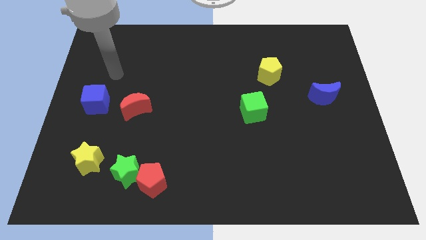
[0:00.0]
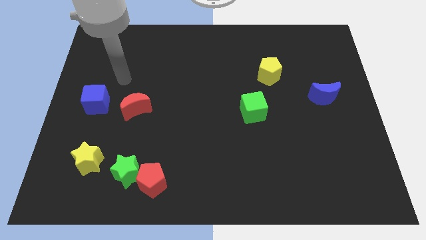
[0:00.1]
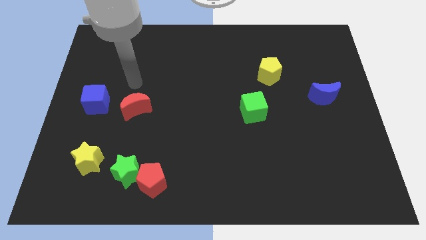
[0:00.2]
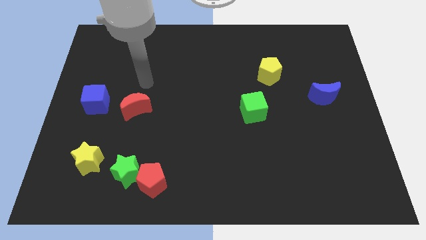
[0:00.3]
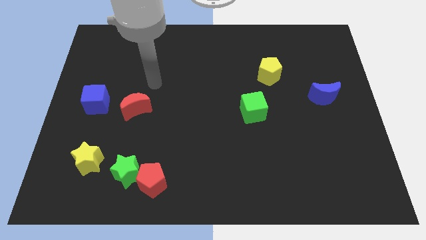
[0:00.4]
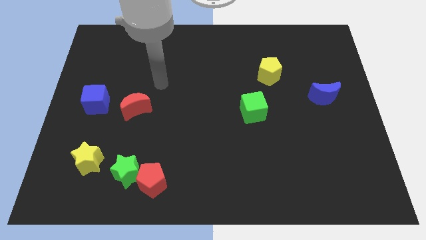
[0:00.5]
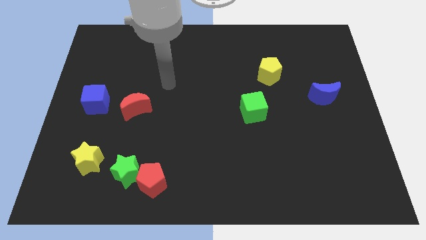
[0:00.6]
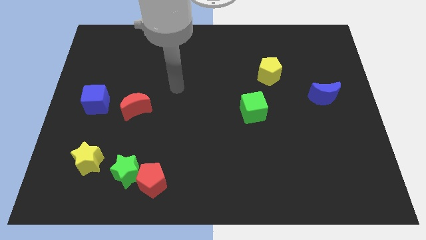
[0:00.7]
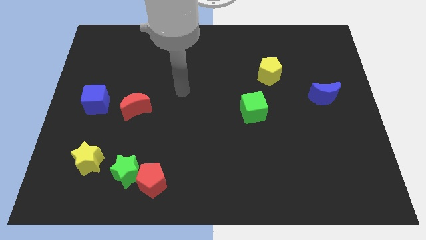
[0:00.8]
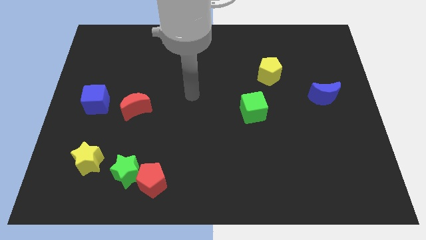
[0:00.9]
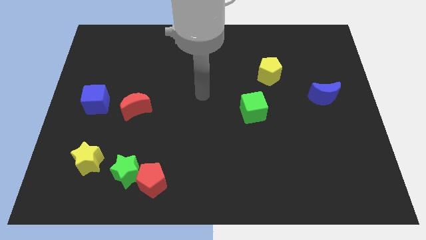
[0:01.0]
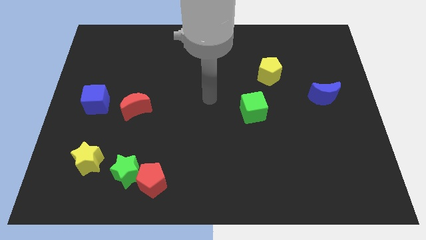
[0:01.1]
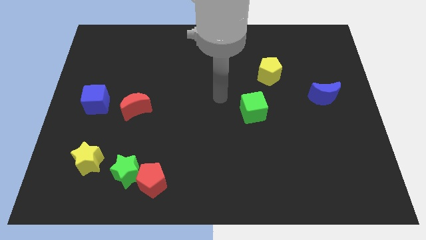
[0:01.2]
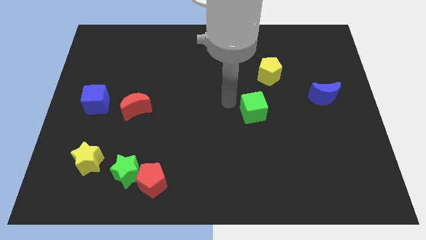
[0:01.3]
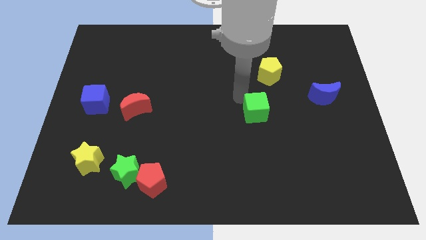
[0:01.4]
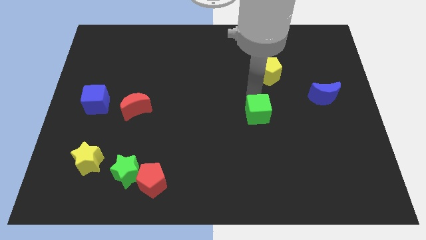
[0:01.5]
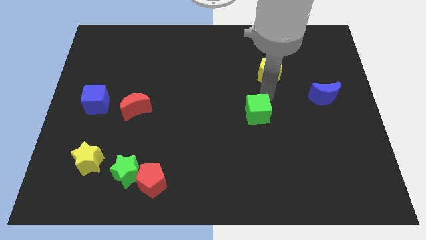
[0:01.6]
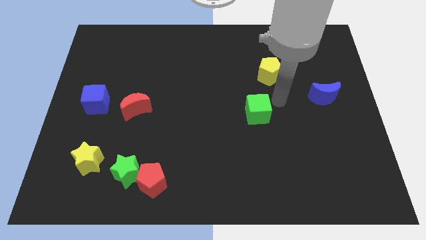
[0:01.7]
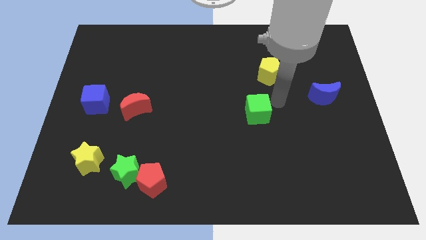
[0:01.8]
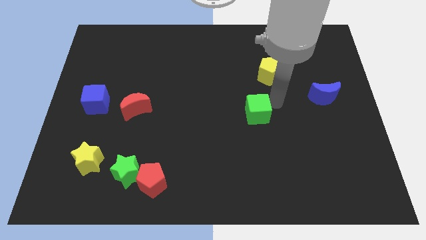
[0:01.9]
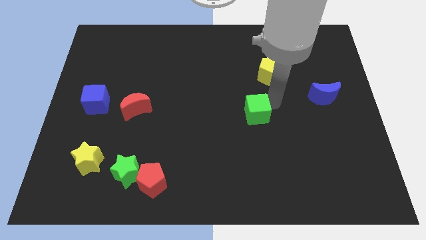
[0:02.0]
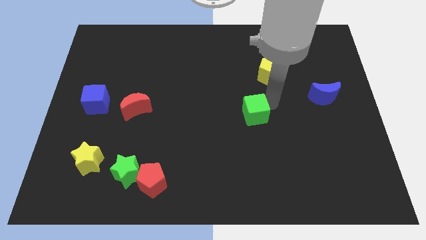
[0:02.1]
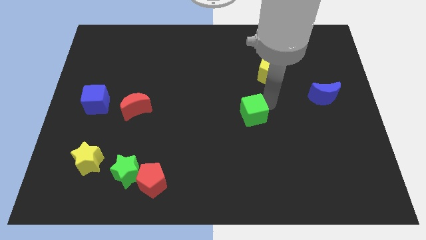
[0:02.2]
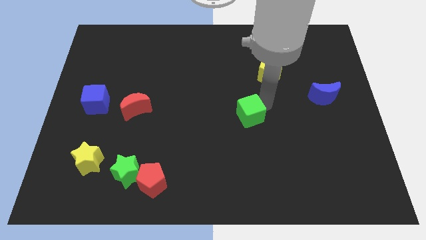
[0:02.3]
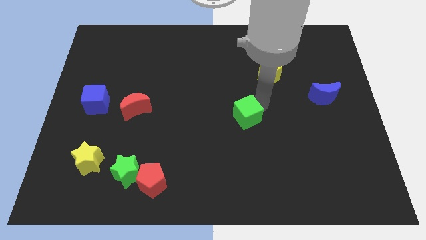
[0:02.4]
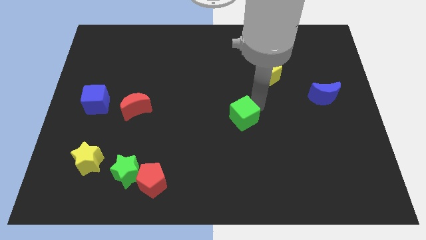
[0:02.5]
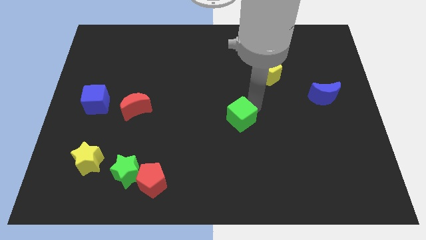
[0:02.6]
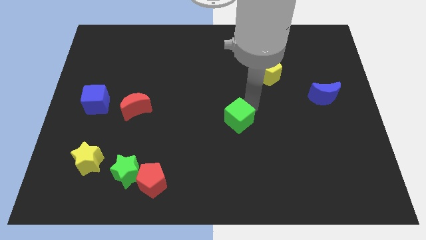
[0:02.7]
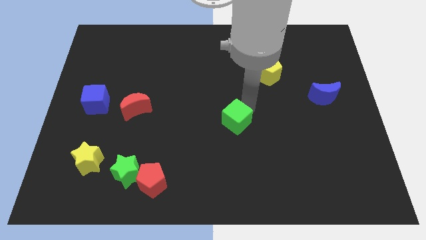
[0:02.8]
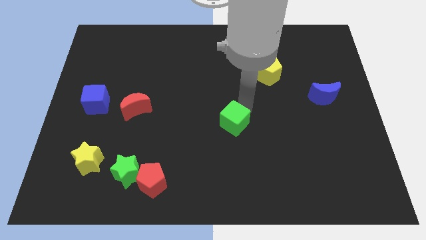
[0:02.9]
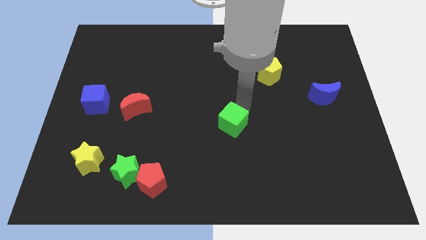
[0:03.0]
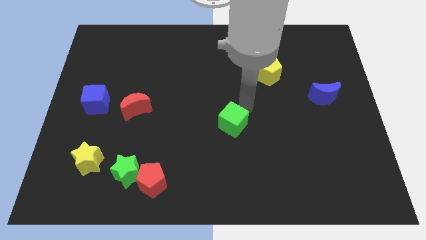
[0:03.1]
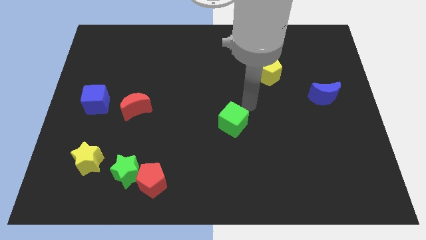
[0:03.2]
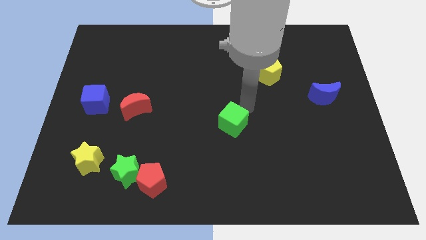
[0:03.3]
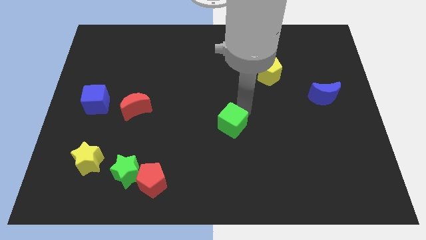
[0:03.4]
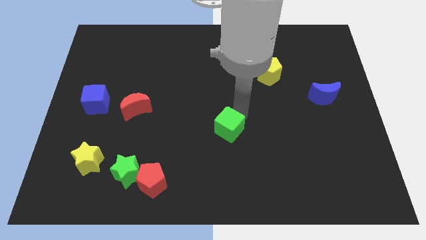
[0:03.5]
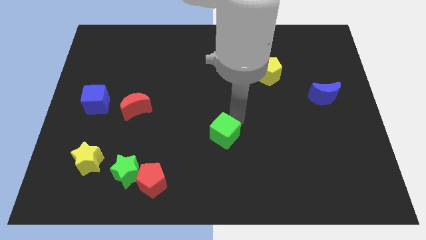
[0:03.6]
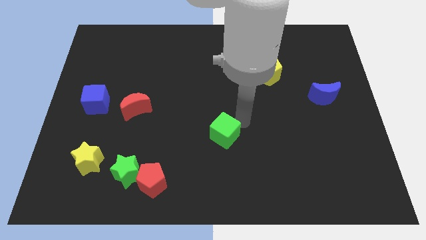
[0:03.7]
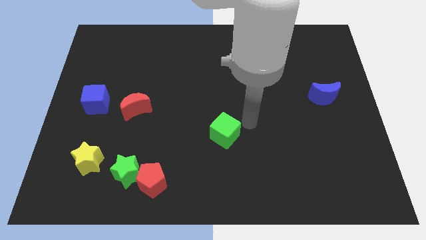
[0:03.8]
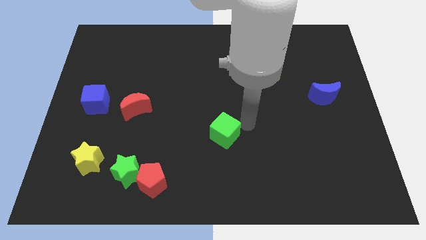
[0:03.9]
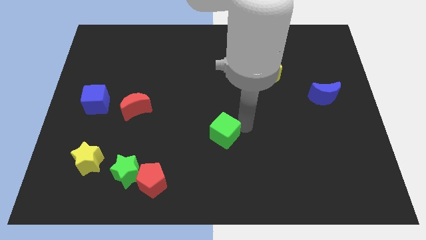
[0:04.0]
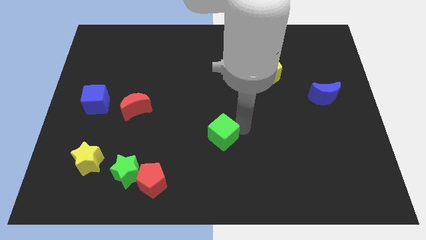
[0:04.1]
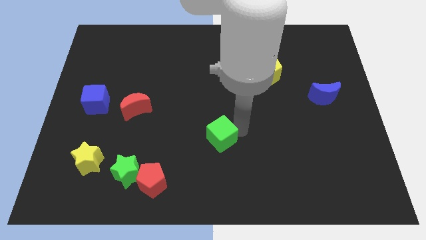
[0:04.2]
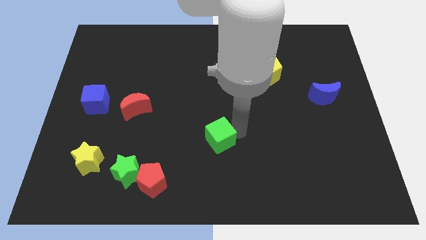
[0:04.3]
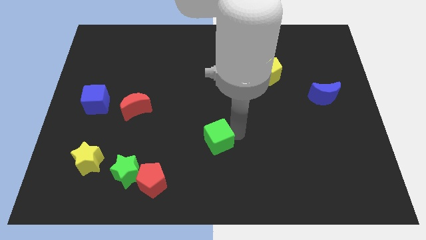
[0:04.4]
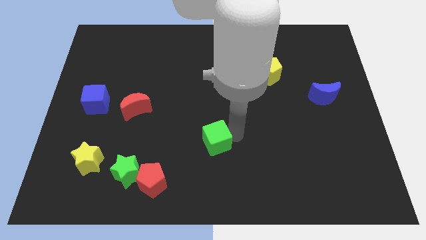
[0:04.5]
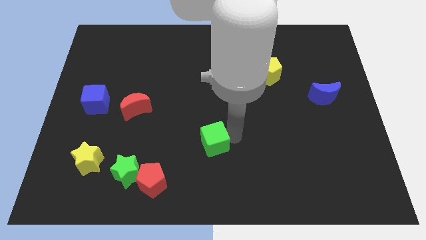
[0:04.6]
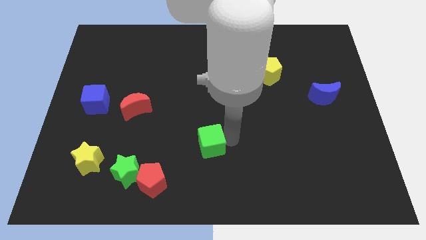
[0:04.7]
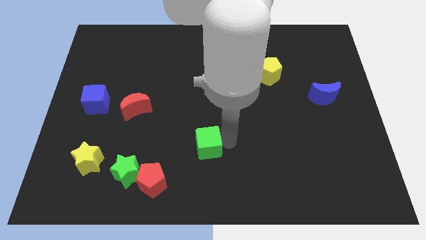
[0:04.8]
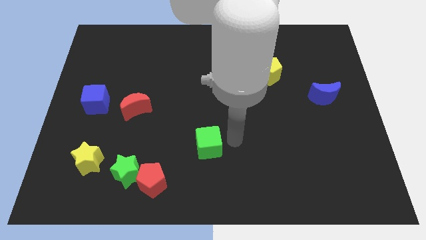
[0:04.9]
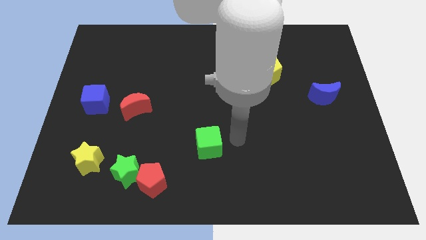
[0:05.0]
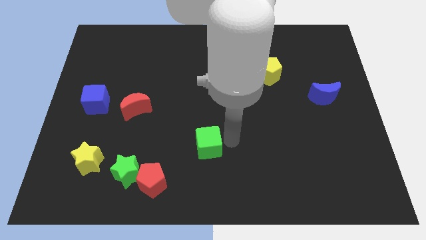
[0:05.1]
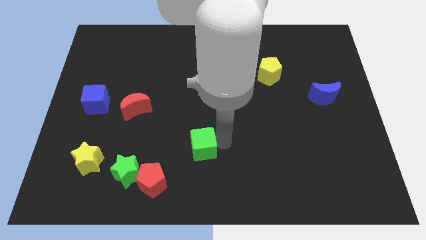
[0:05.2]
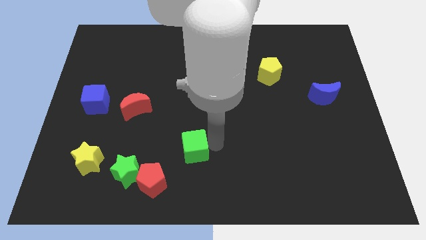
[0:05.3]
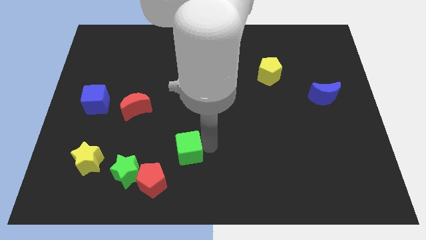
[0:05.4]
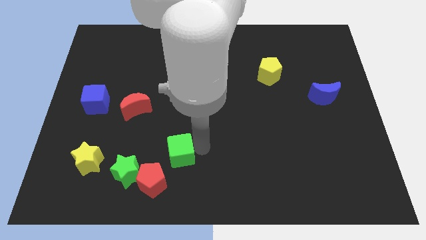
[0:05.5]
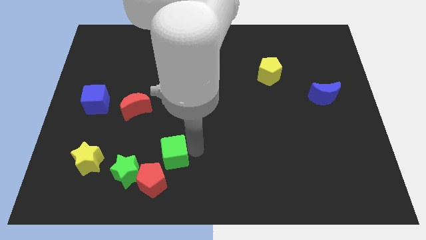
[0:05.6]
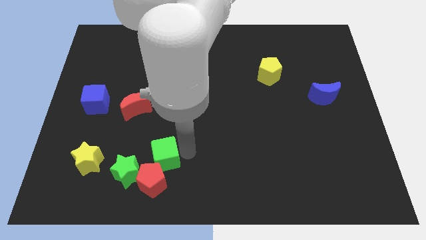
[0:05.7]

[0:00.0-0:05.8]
slide the green cube right of the yellow star

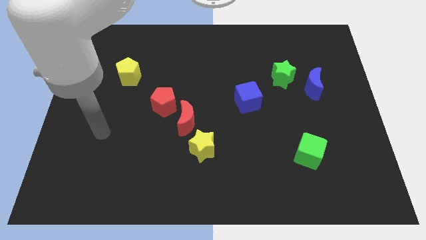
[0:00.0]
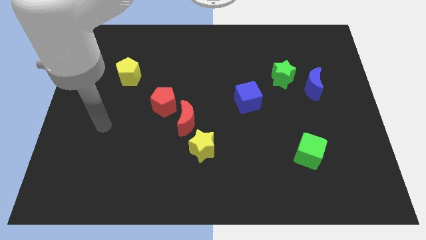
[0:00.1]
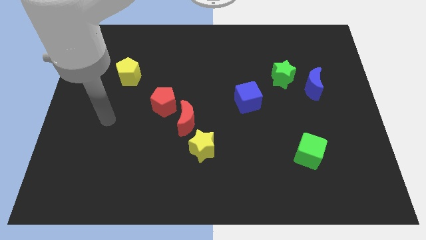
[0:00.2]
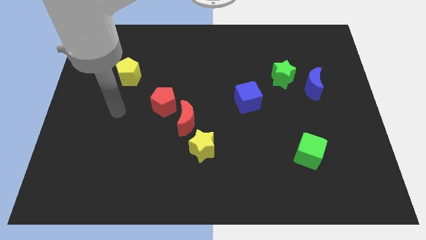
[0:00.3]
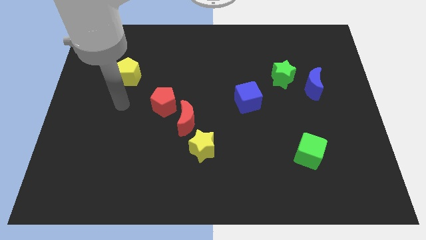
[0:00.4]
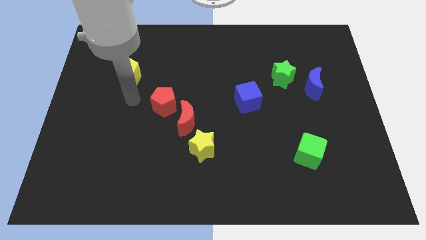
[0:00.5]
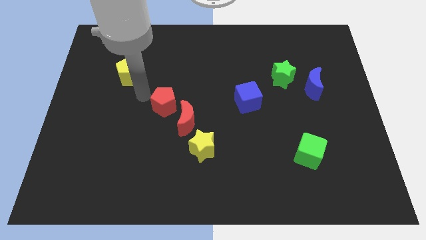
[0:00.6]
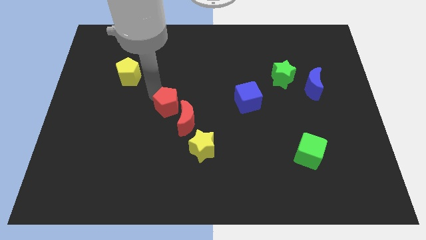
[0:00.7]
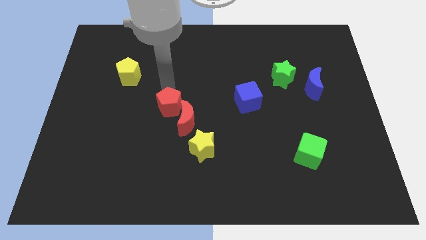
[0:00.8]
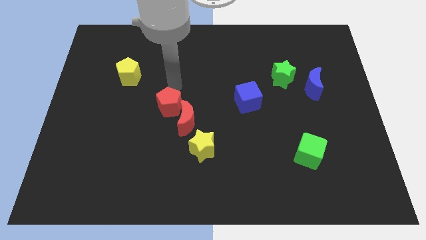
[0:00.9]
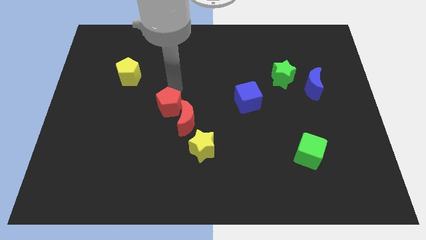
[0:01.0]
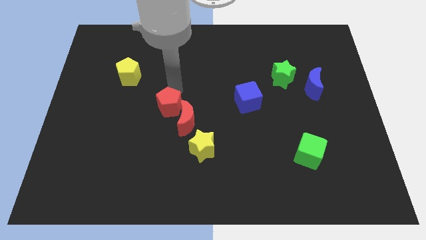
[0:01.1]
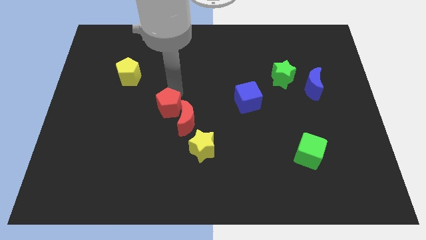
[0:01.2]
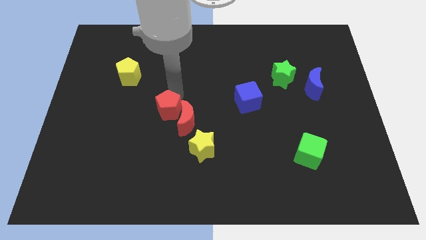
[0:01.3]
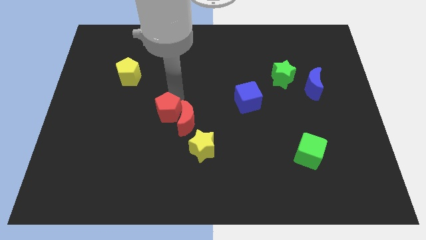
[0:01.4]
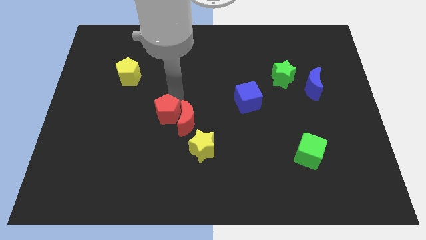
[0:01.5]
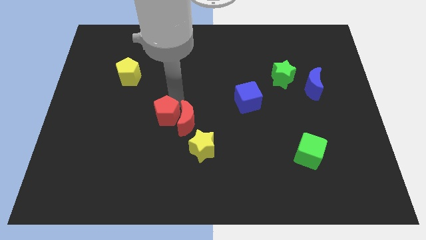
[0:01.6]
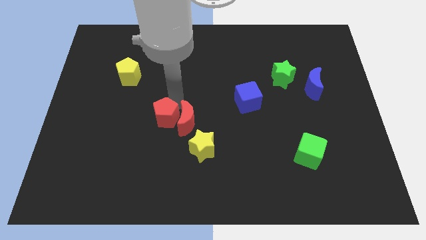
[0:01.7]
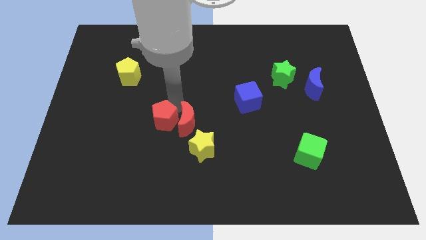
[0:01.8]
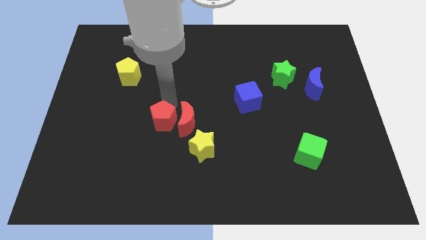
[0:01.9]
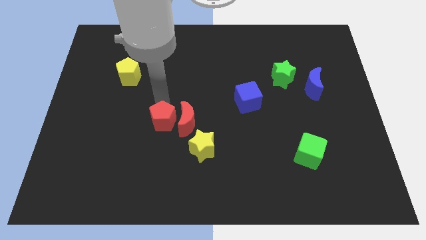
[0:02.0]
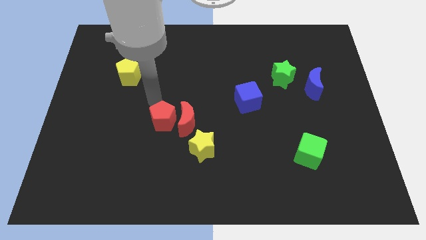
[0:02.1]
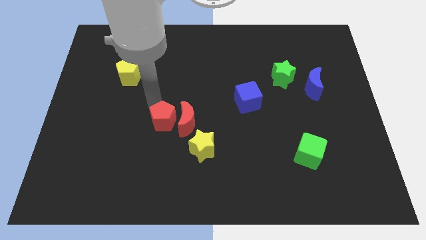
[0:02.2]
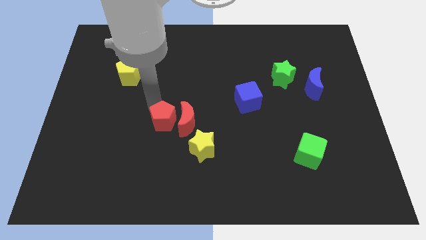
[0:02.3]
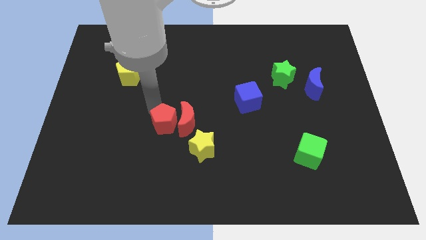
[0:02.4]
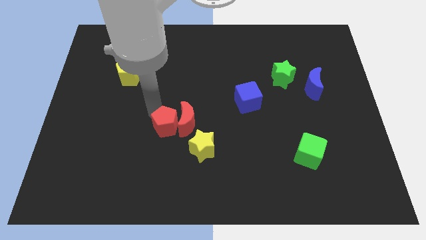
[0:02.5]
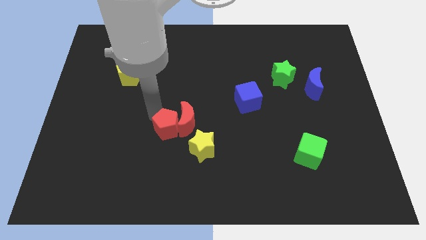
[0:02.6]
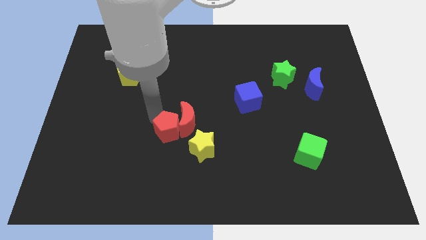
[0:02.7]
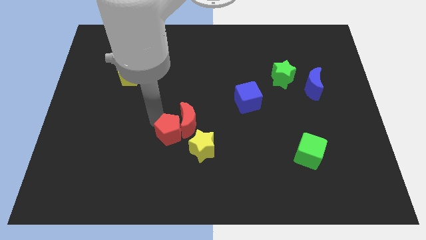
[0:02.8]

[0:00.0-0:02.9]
push the red pentagon to the bottom side of the red moon
